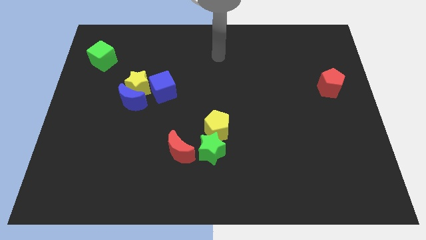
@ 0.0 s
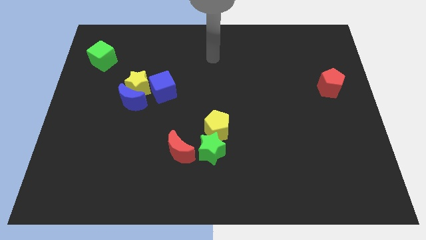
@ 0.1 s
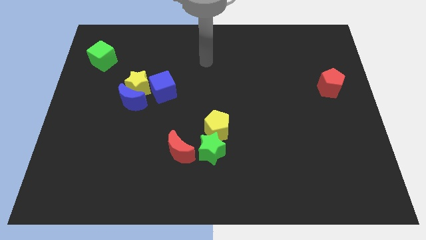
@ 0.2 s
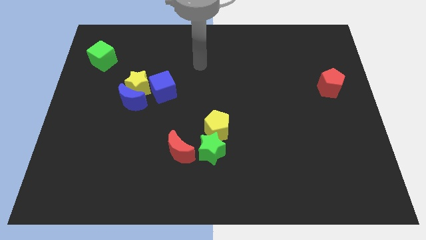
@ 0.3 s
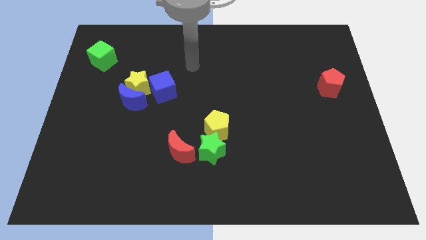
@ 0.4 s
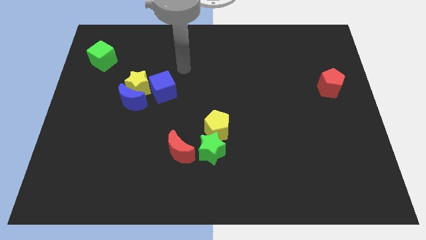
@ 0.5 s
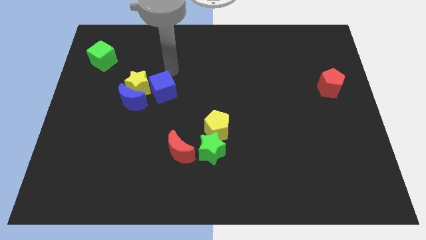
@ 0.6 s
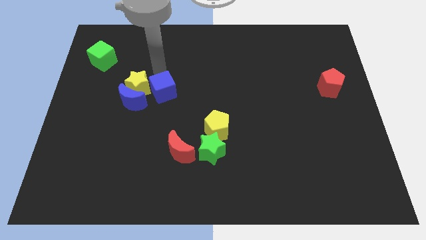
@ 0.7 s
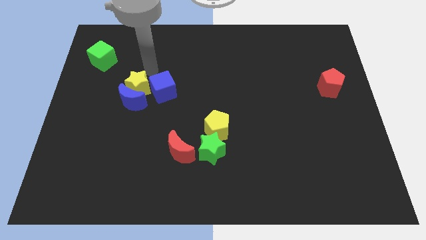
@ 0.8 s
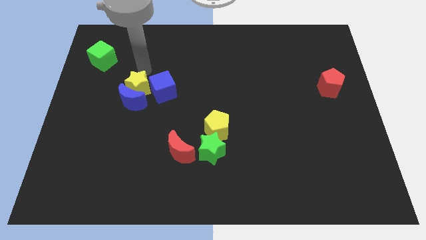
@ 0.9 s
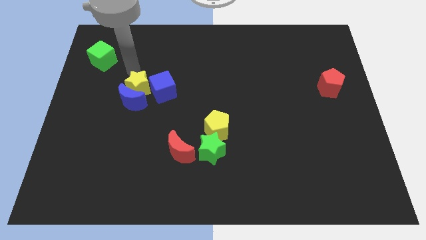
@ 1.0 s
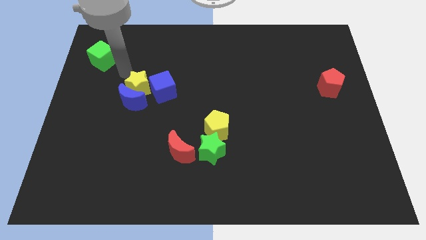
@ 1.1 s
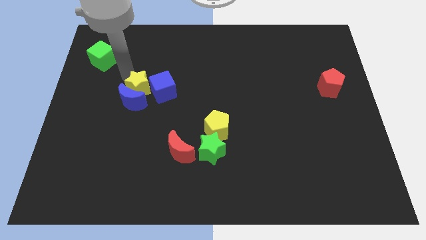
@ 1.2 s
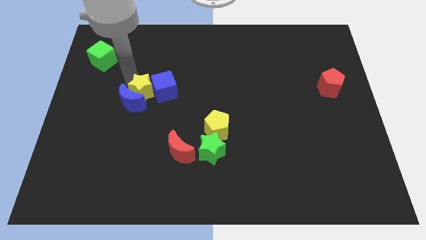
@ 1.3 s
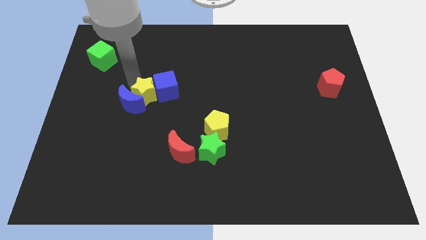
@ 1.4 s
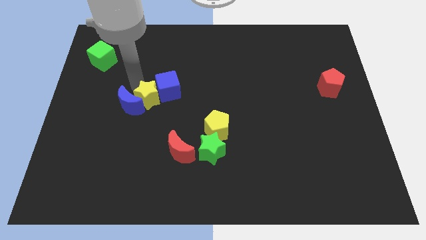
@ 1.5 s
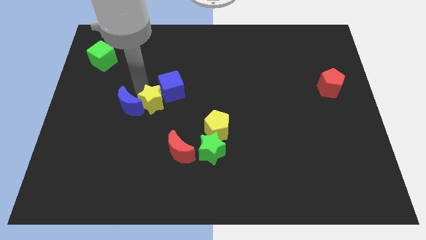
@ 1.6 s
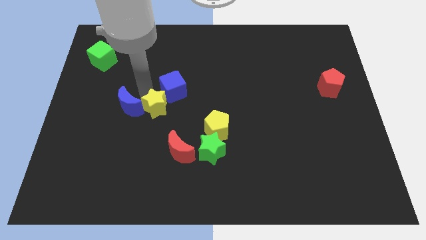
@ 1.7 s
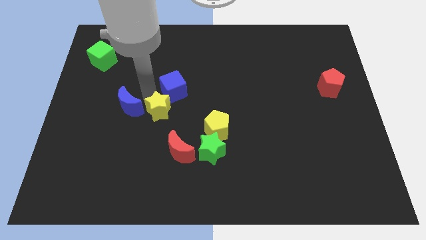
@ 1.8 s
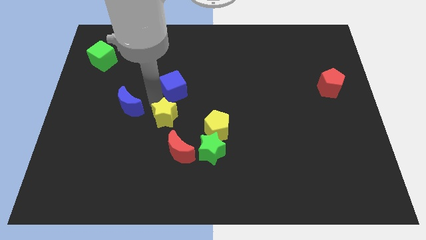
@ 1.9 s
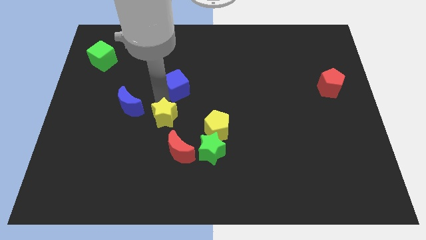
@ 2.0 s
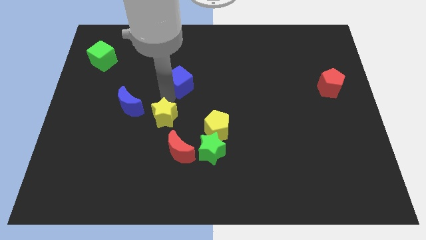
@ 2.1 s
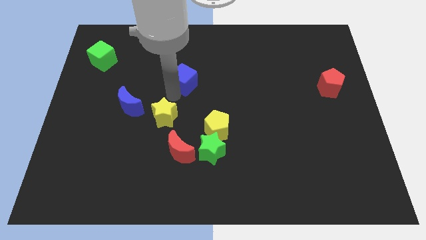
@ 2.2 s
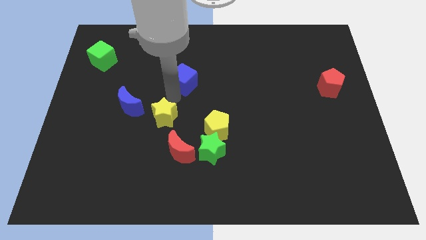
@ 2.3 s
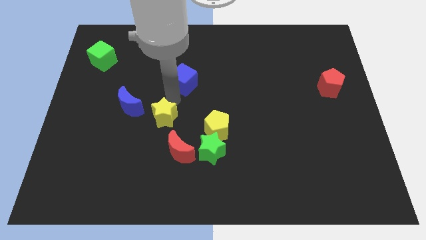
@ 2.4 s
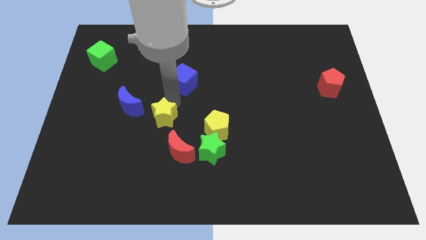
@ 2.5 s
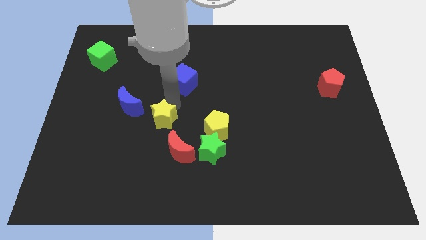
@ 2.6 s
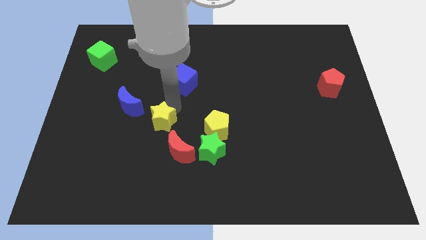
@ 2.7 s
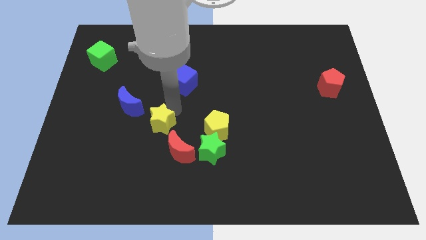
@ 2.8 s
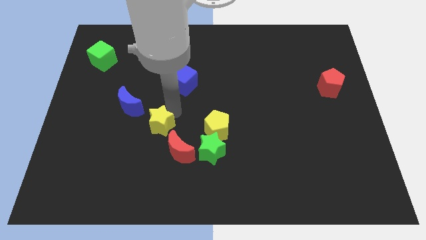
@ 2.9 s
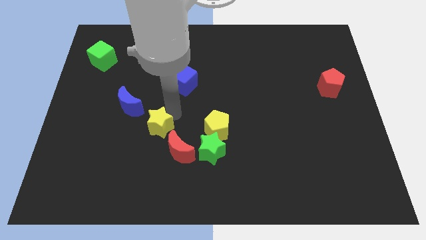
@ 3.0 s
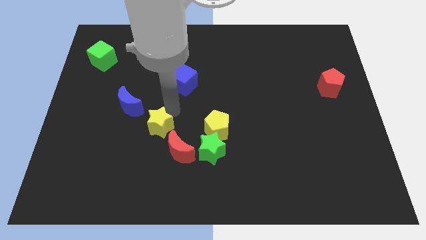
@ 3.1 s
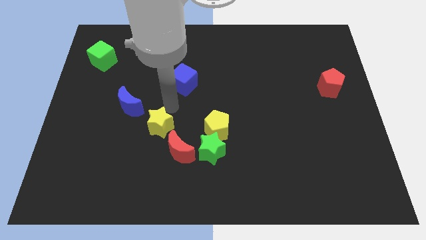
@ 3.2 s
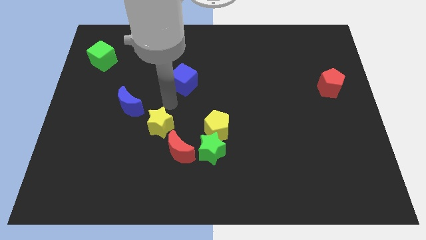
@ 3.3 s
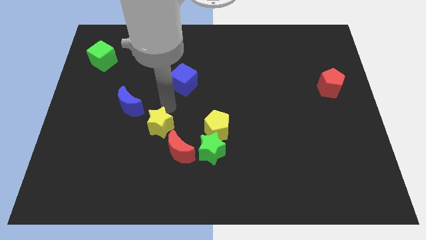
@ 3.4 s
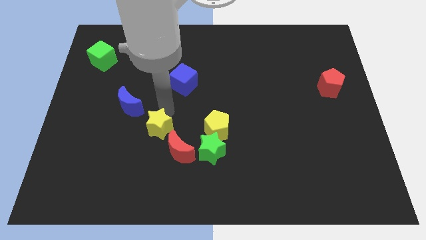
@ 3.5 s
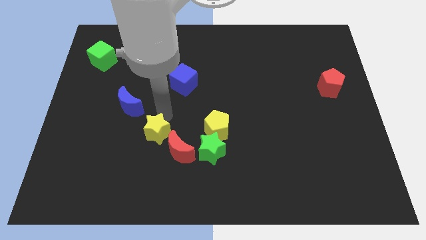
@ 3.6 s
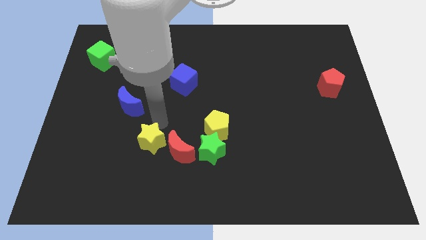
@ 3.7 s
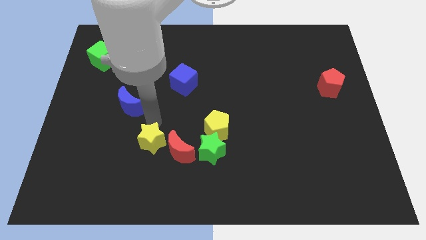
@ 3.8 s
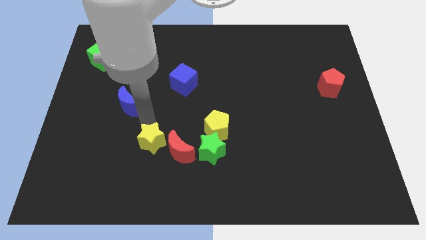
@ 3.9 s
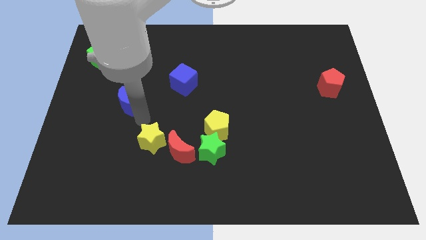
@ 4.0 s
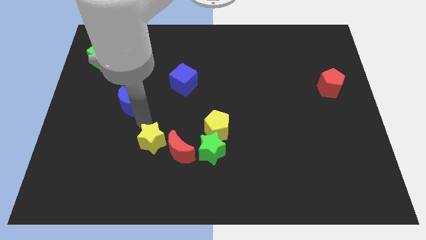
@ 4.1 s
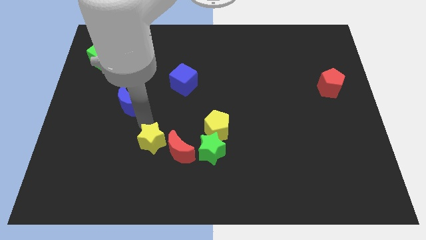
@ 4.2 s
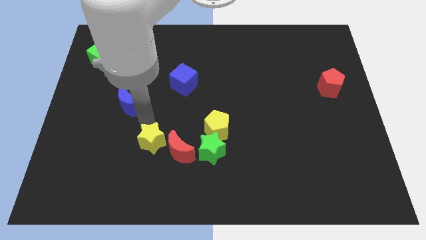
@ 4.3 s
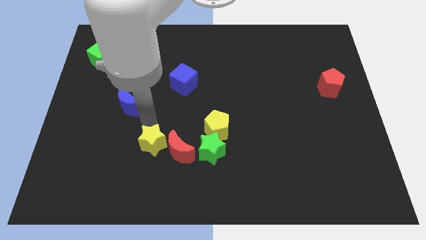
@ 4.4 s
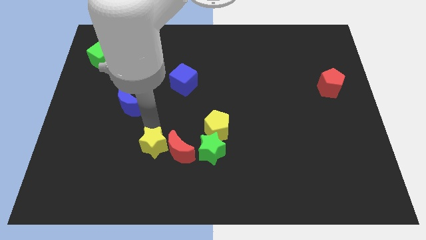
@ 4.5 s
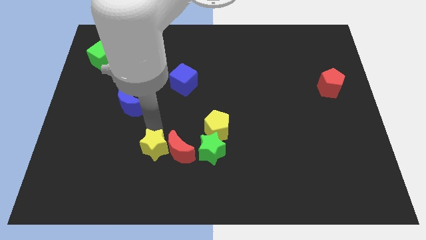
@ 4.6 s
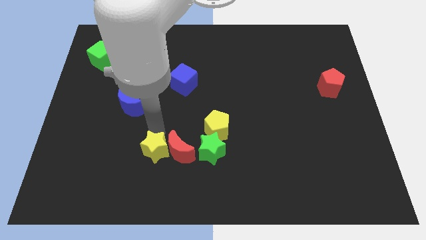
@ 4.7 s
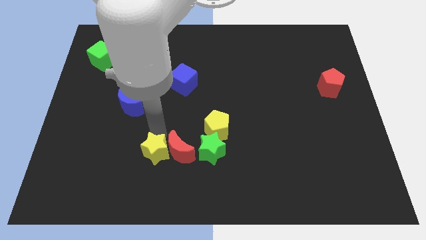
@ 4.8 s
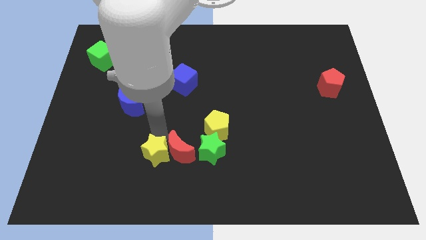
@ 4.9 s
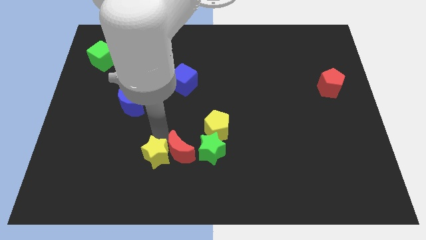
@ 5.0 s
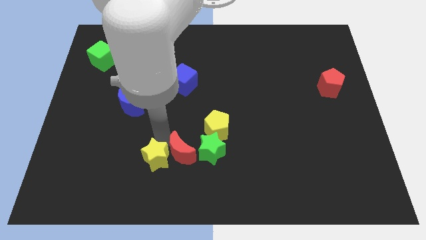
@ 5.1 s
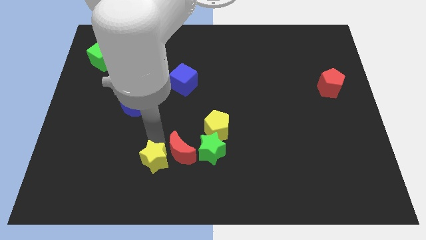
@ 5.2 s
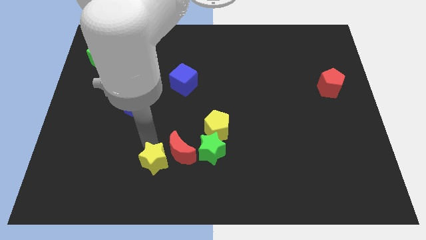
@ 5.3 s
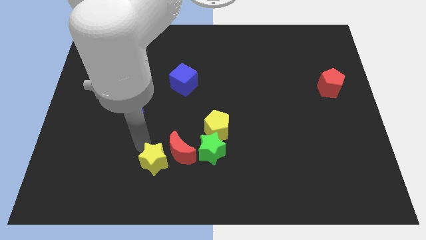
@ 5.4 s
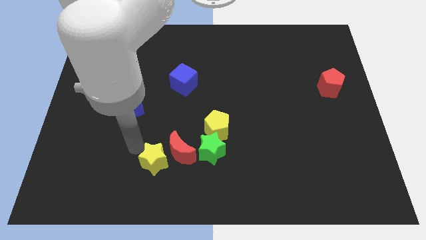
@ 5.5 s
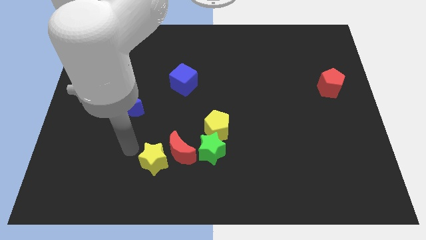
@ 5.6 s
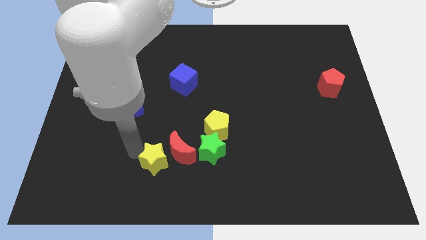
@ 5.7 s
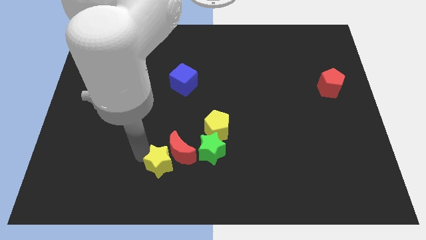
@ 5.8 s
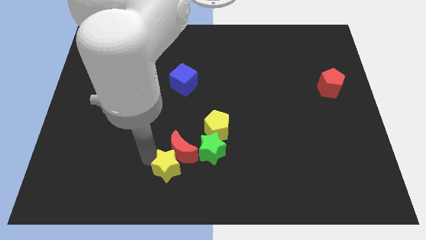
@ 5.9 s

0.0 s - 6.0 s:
put the yellow star to the bottom left side of the green star

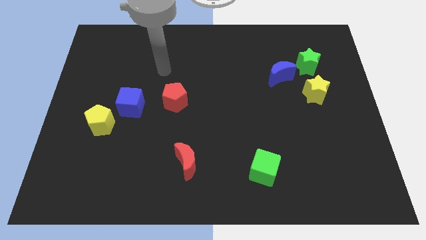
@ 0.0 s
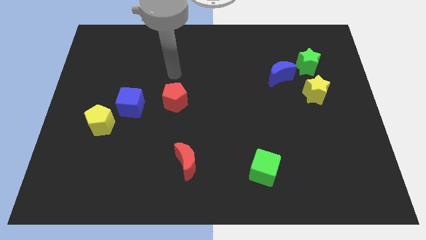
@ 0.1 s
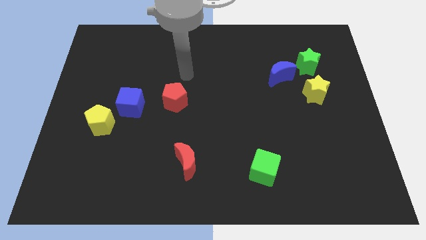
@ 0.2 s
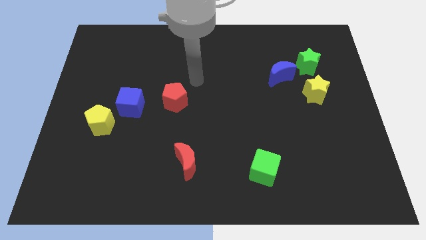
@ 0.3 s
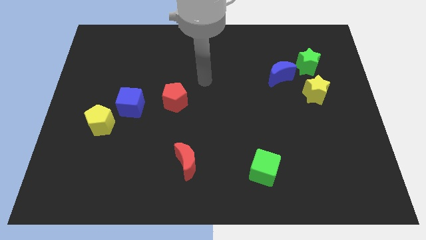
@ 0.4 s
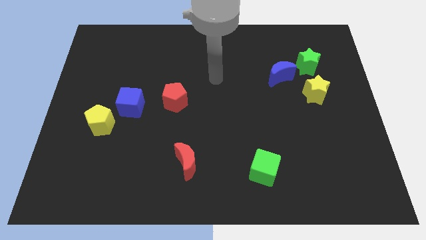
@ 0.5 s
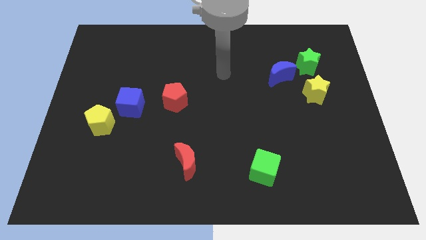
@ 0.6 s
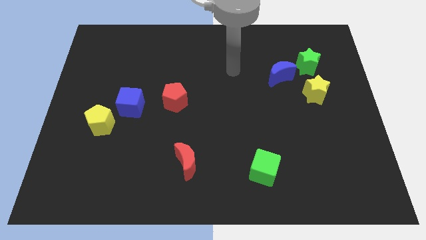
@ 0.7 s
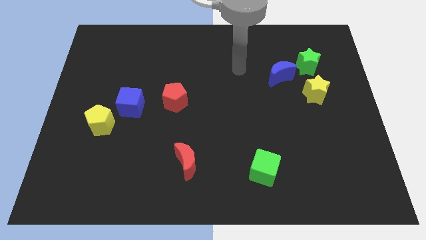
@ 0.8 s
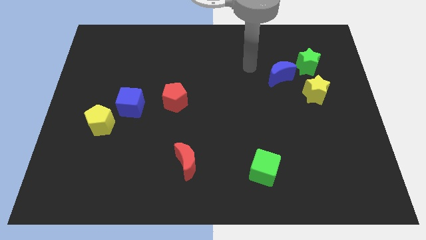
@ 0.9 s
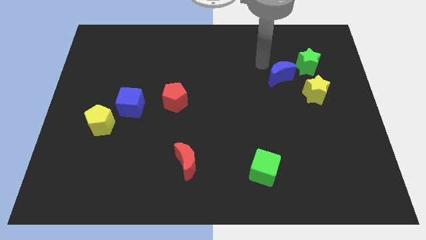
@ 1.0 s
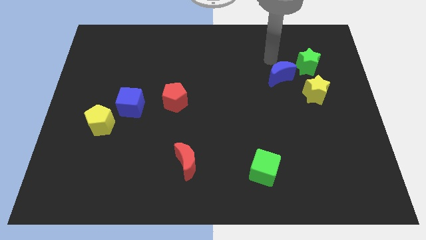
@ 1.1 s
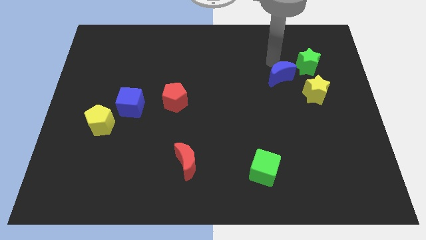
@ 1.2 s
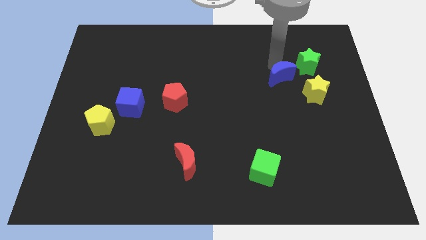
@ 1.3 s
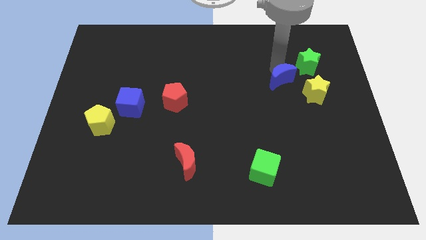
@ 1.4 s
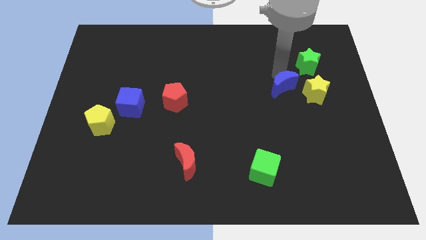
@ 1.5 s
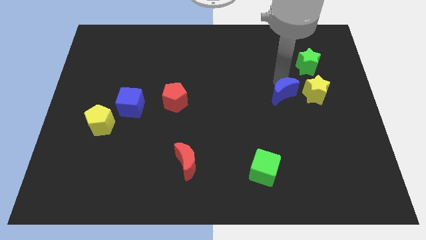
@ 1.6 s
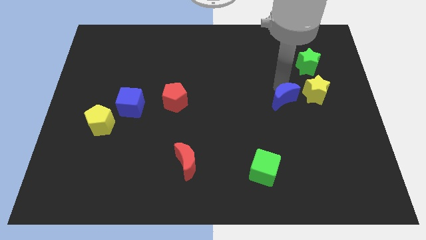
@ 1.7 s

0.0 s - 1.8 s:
slide the blue moon to the bottom left side of the yellow star

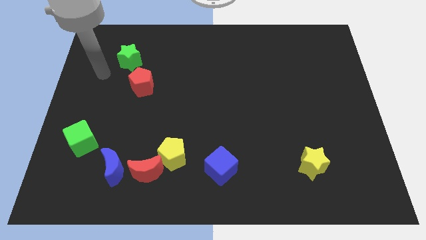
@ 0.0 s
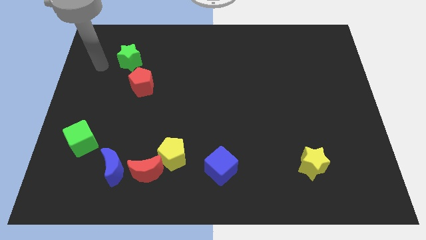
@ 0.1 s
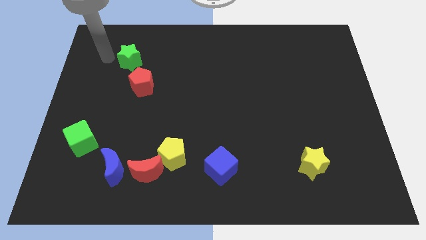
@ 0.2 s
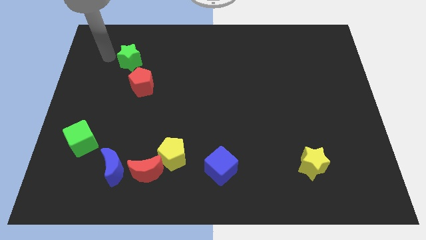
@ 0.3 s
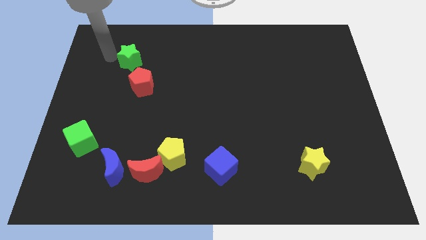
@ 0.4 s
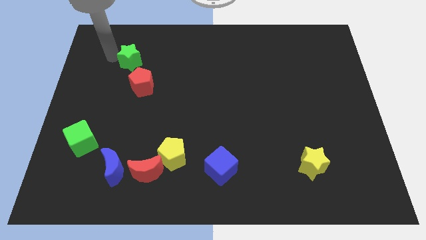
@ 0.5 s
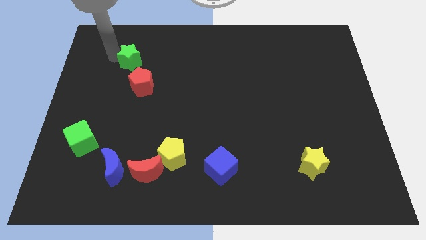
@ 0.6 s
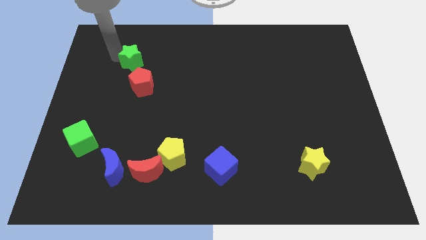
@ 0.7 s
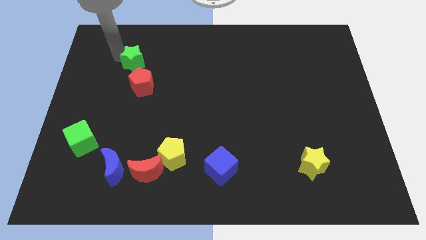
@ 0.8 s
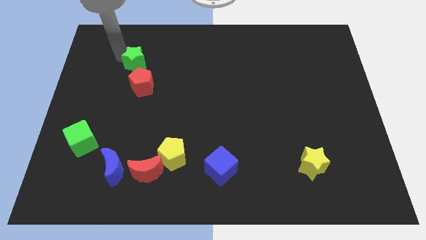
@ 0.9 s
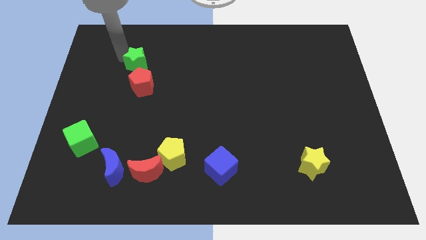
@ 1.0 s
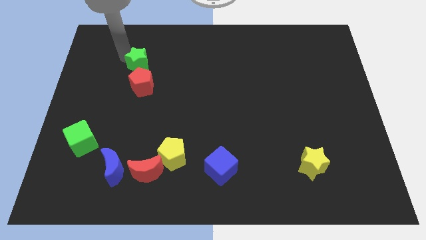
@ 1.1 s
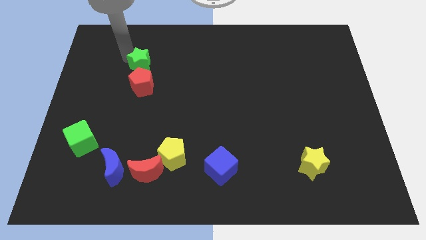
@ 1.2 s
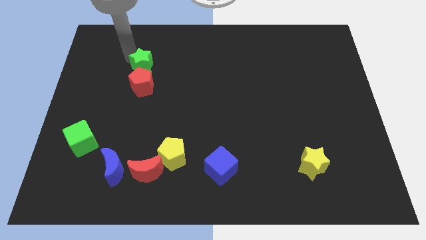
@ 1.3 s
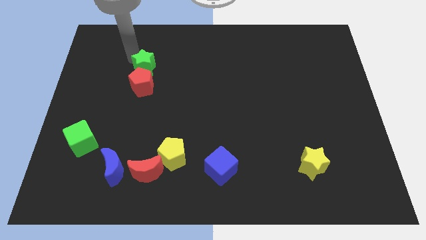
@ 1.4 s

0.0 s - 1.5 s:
slide the green star to the top right side of the red pentagon
